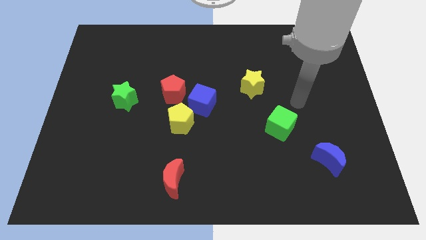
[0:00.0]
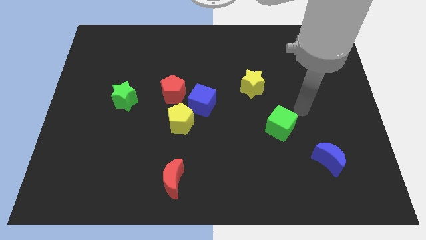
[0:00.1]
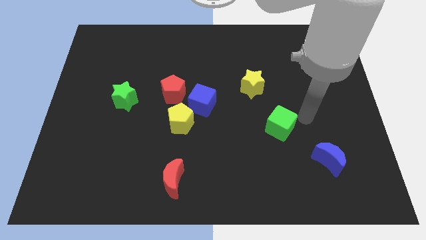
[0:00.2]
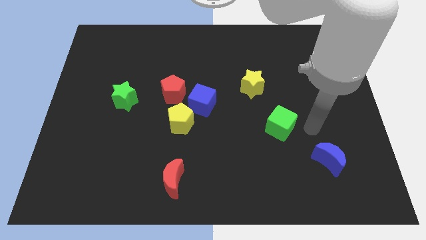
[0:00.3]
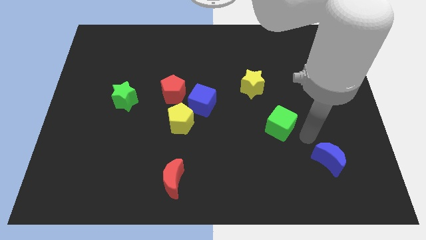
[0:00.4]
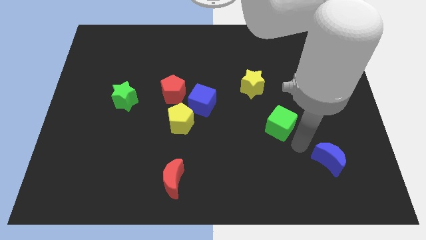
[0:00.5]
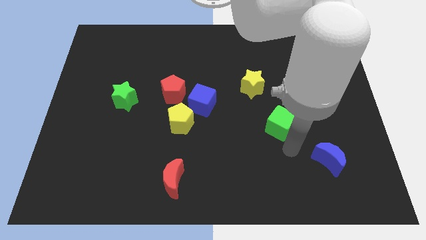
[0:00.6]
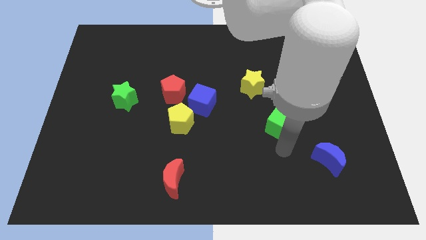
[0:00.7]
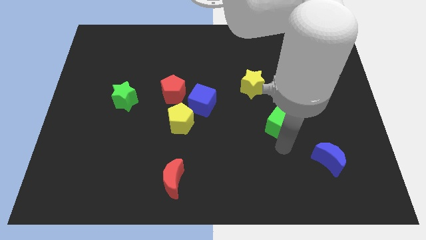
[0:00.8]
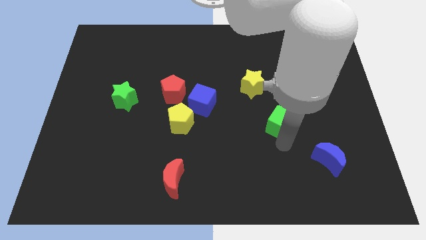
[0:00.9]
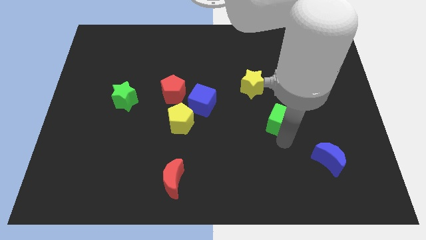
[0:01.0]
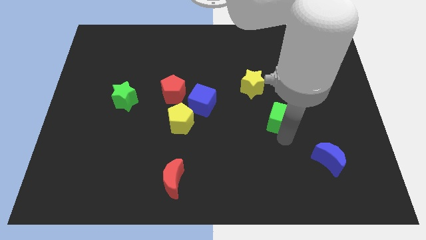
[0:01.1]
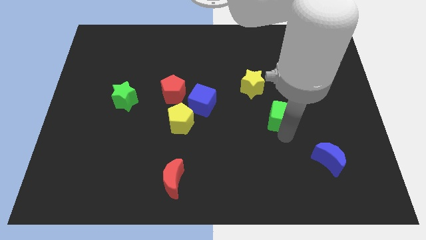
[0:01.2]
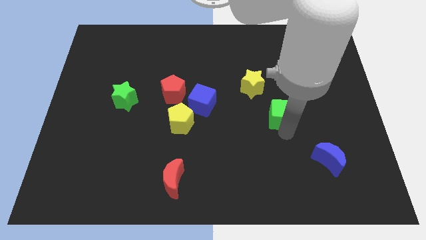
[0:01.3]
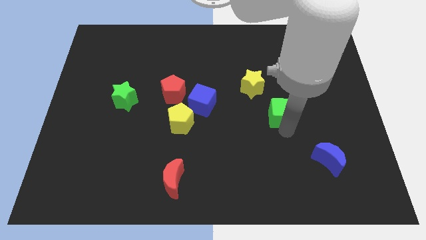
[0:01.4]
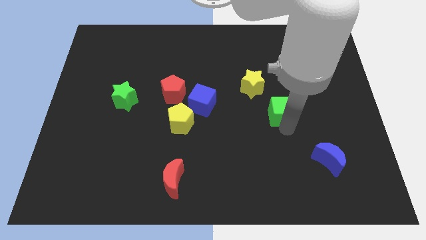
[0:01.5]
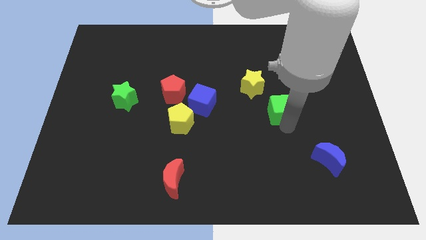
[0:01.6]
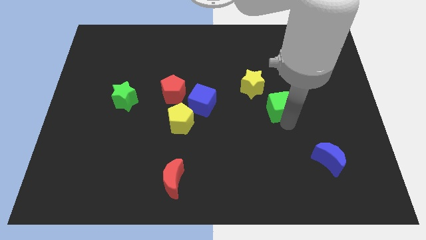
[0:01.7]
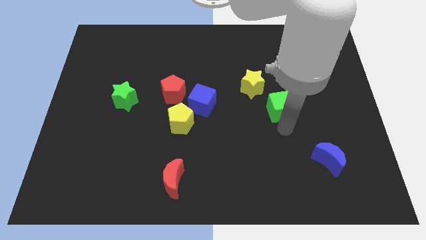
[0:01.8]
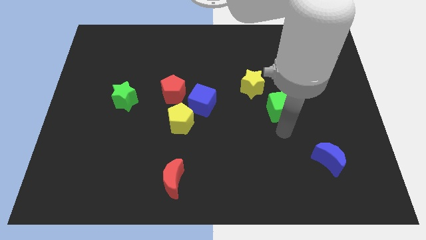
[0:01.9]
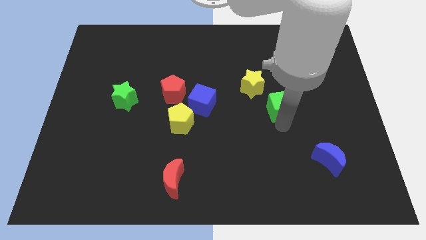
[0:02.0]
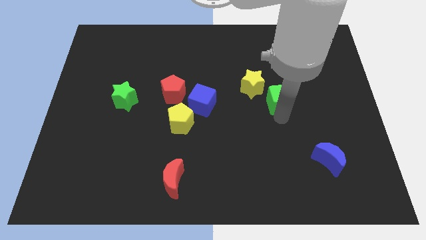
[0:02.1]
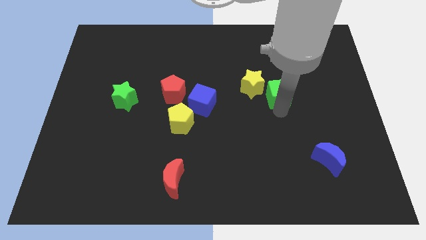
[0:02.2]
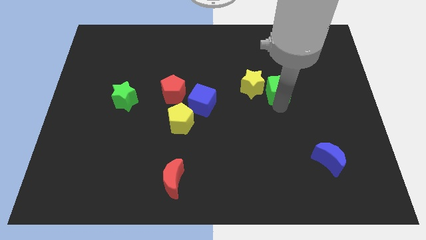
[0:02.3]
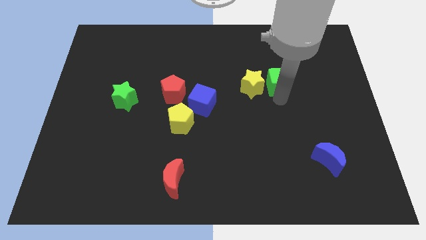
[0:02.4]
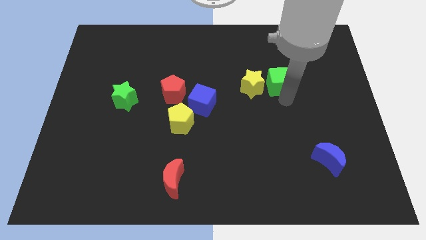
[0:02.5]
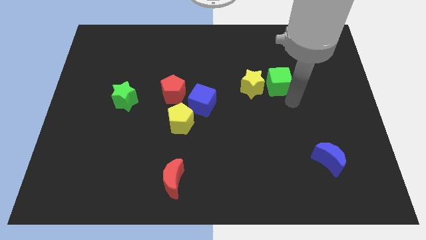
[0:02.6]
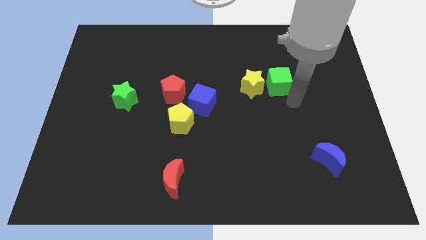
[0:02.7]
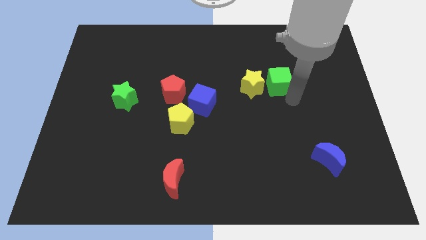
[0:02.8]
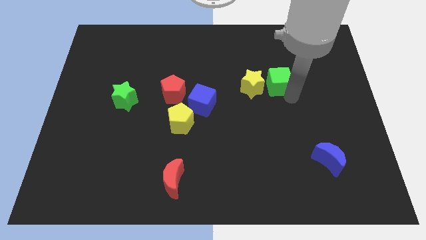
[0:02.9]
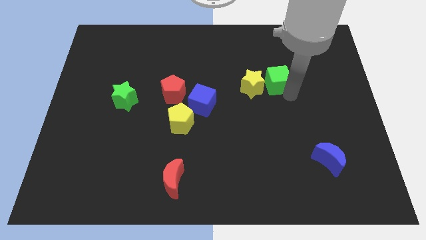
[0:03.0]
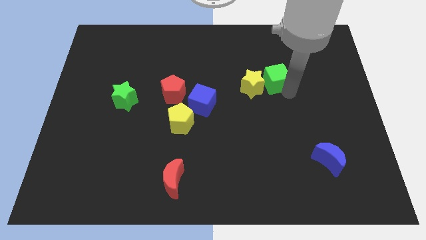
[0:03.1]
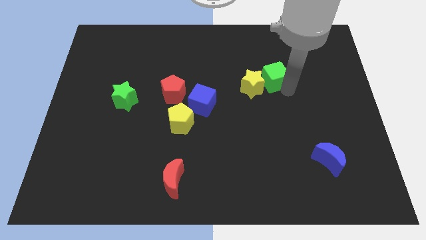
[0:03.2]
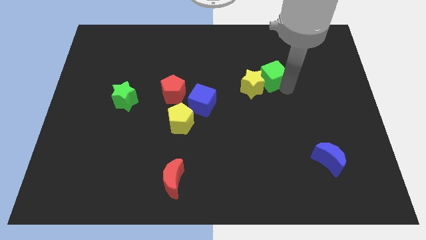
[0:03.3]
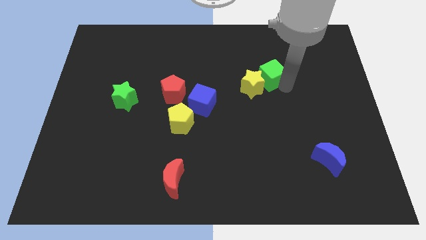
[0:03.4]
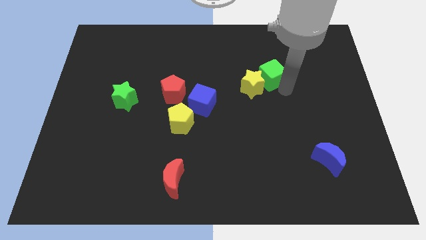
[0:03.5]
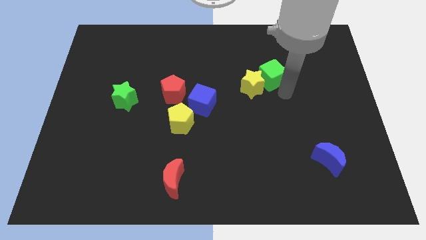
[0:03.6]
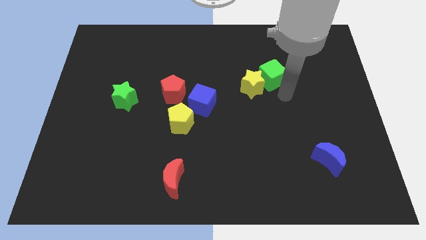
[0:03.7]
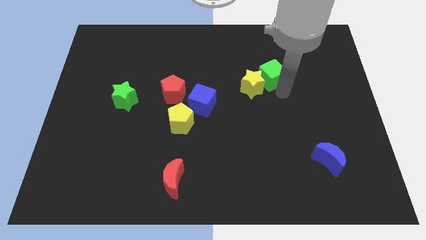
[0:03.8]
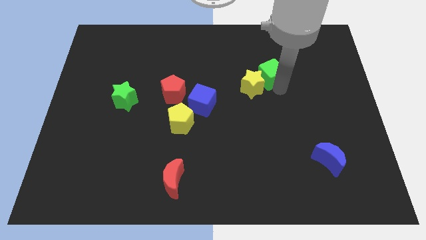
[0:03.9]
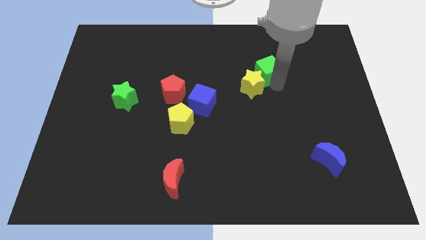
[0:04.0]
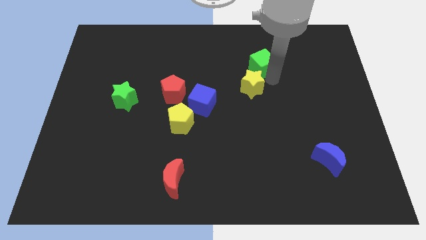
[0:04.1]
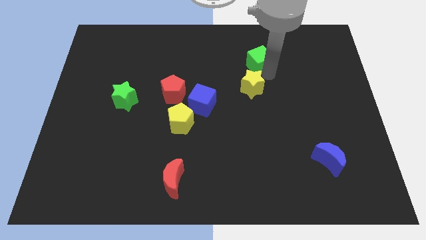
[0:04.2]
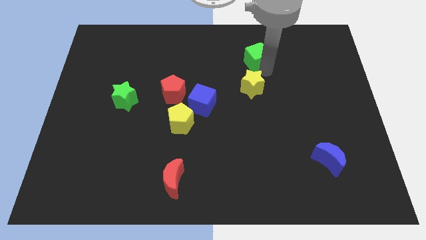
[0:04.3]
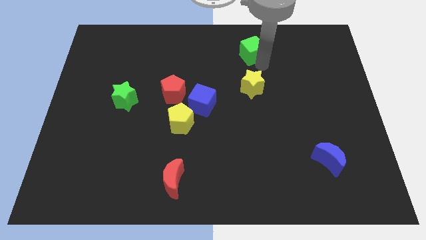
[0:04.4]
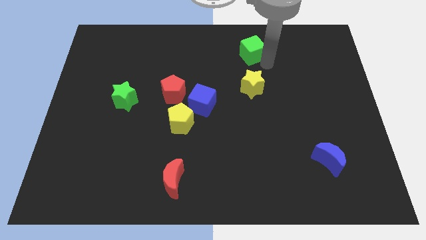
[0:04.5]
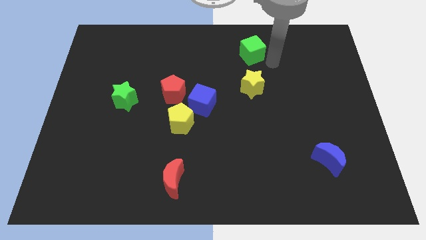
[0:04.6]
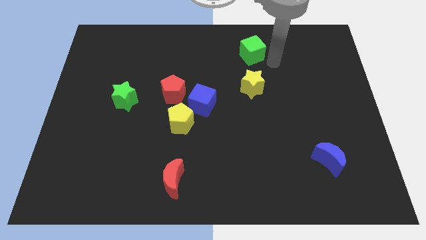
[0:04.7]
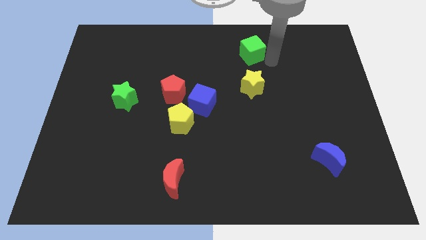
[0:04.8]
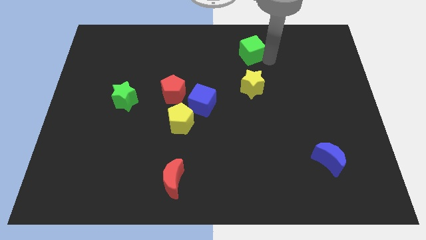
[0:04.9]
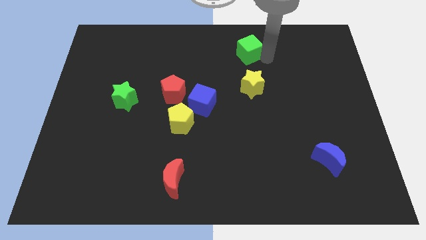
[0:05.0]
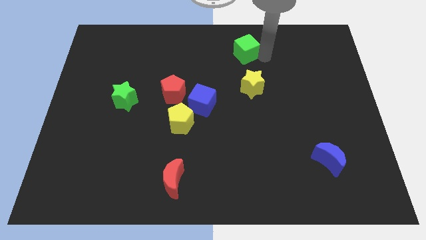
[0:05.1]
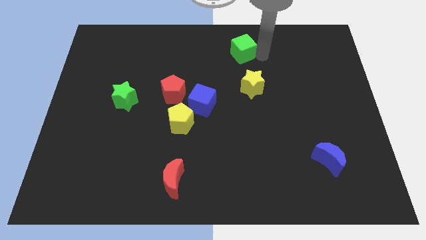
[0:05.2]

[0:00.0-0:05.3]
push the green cube to the towards your base
